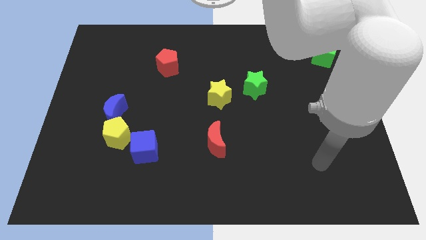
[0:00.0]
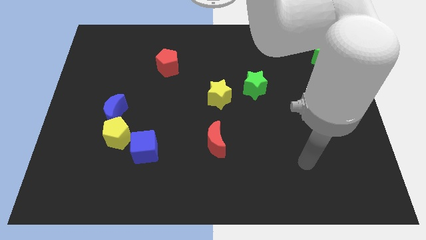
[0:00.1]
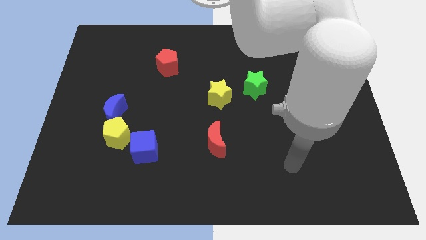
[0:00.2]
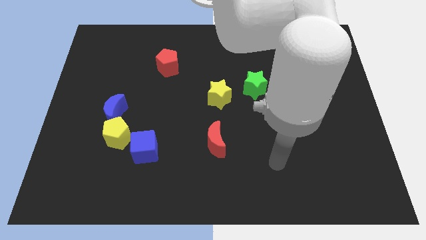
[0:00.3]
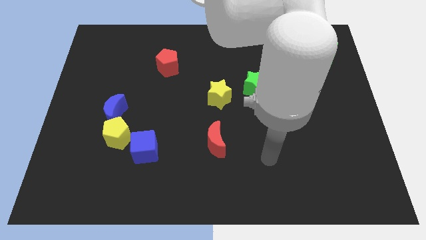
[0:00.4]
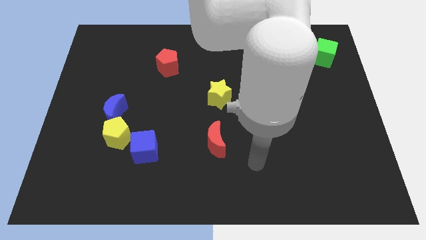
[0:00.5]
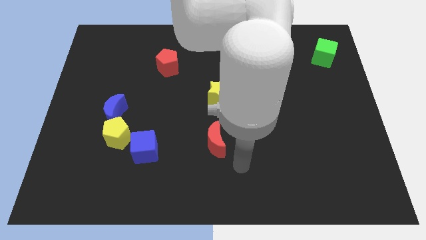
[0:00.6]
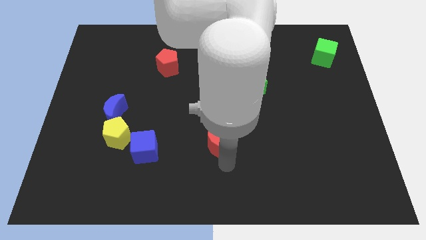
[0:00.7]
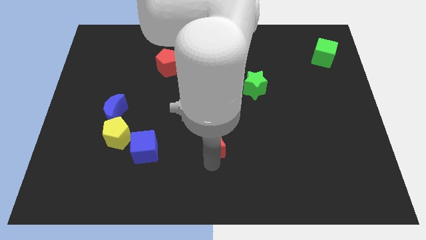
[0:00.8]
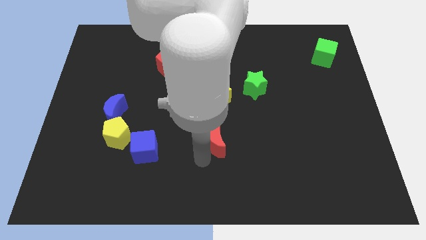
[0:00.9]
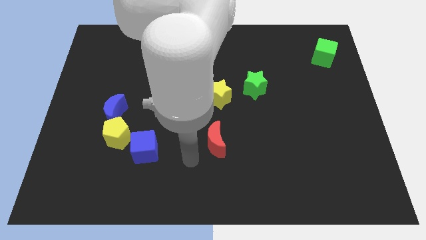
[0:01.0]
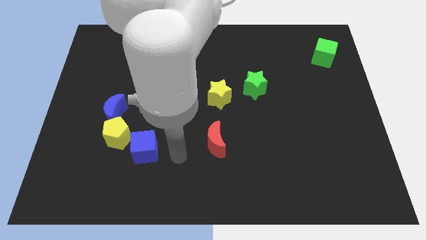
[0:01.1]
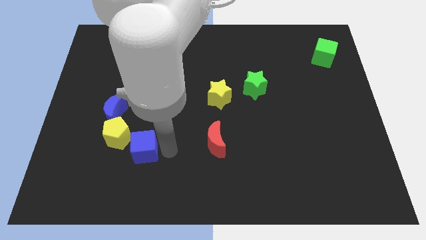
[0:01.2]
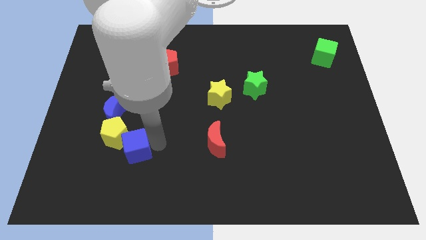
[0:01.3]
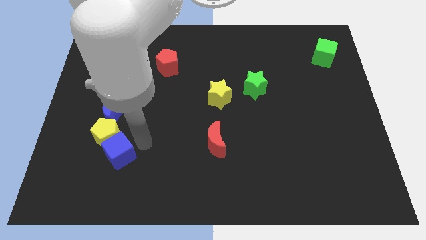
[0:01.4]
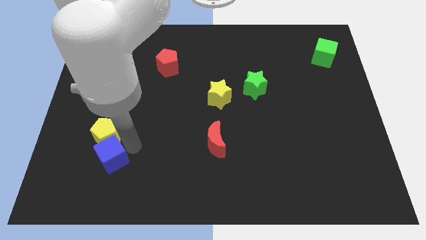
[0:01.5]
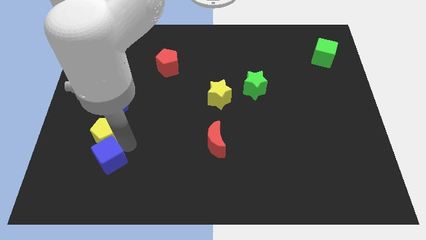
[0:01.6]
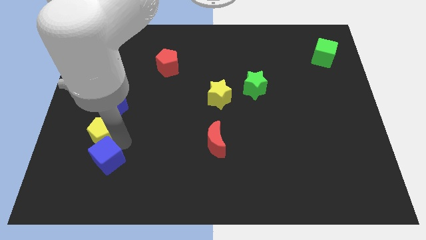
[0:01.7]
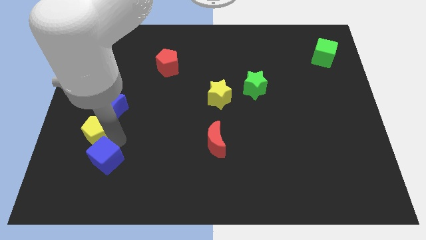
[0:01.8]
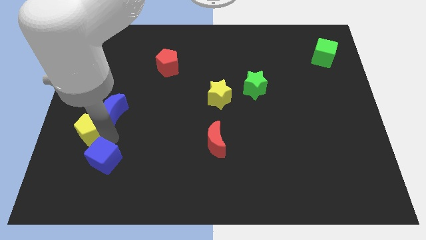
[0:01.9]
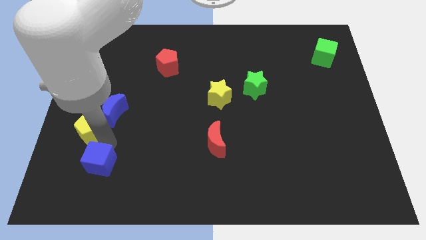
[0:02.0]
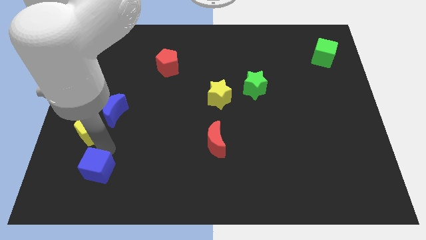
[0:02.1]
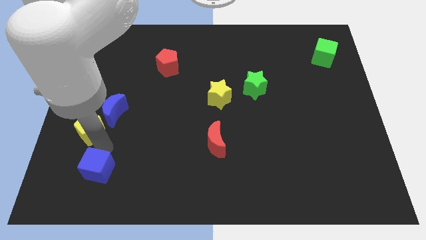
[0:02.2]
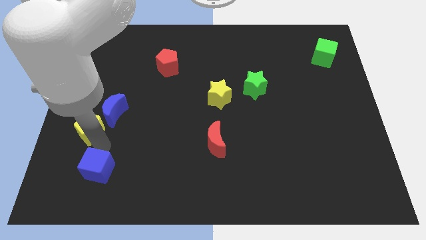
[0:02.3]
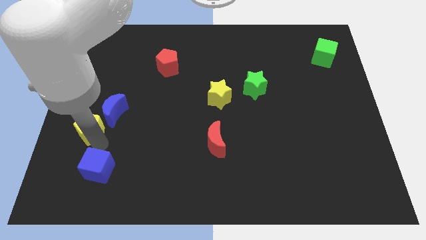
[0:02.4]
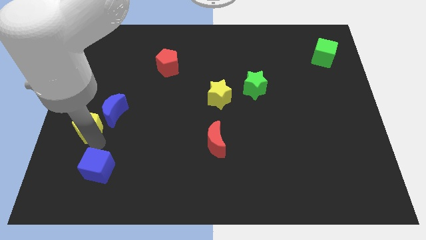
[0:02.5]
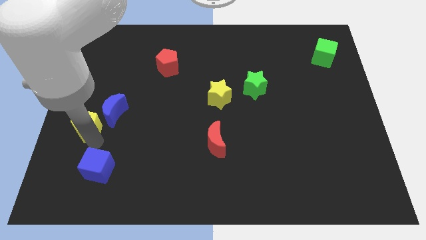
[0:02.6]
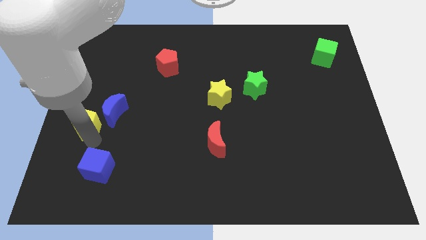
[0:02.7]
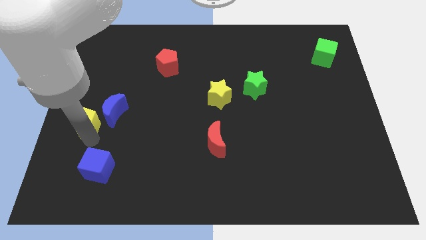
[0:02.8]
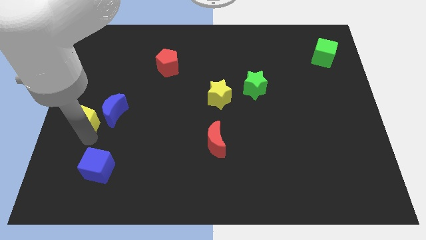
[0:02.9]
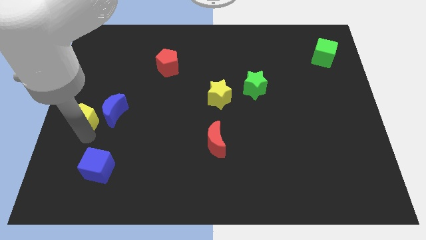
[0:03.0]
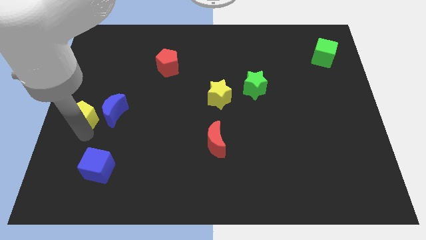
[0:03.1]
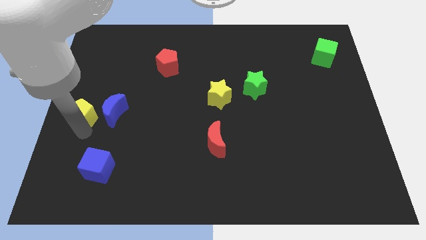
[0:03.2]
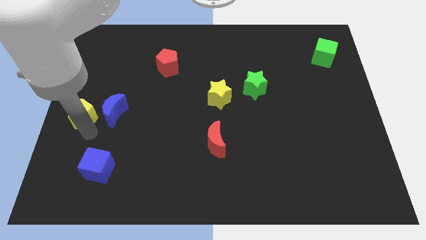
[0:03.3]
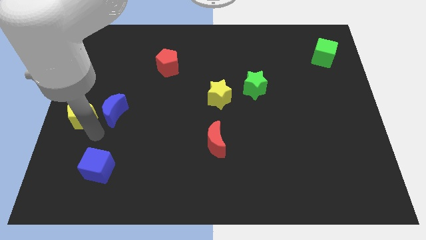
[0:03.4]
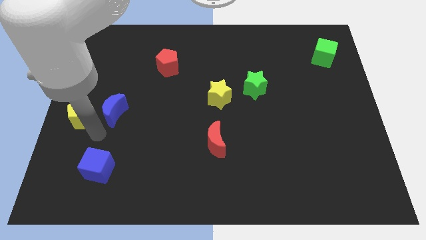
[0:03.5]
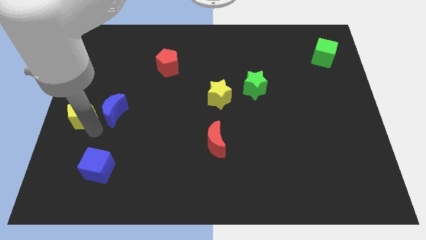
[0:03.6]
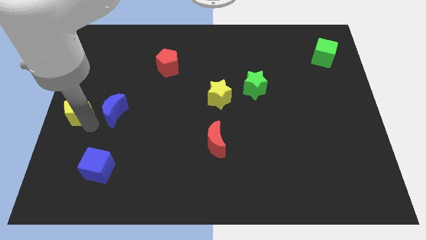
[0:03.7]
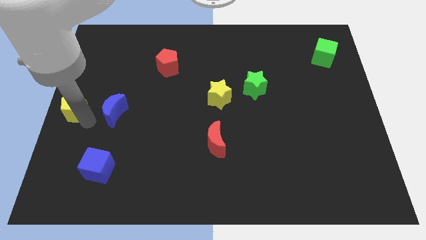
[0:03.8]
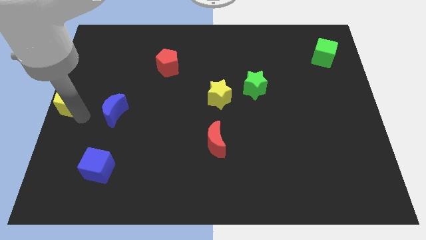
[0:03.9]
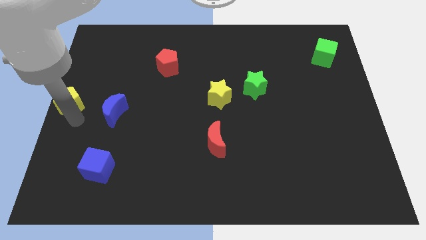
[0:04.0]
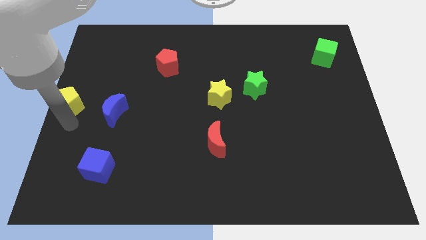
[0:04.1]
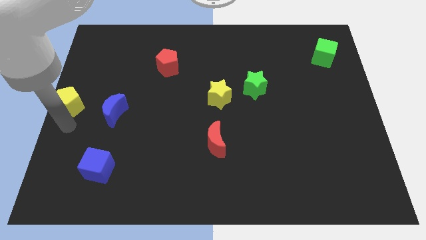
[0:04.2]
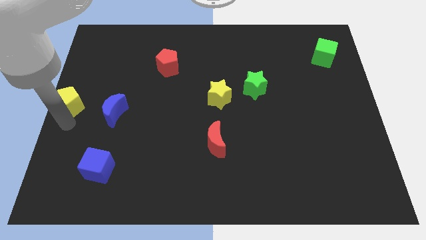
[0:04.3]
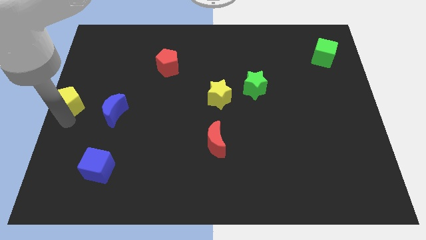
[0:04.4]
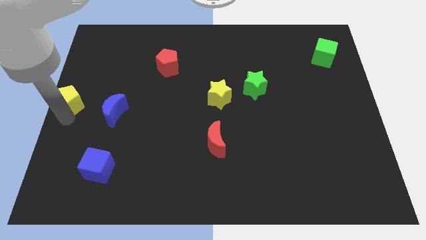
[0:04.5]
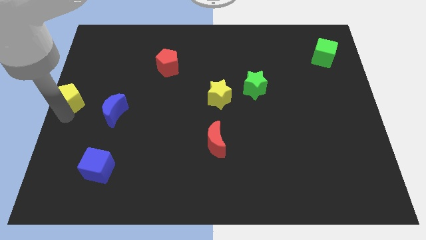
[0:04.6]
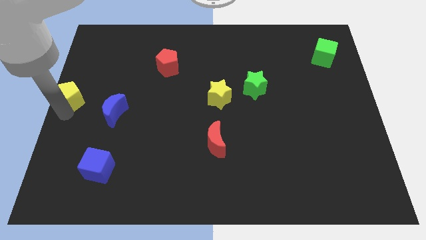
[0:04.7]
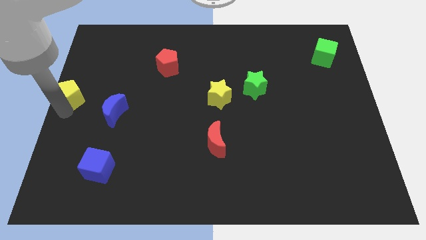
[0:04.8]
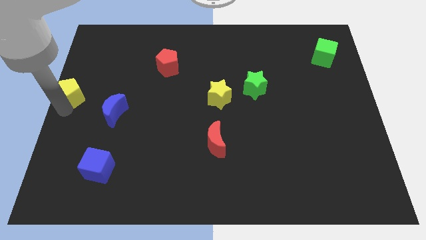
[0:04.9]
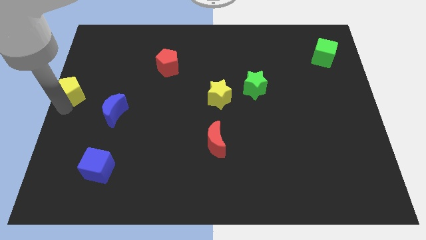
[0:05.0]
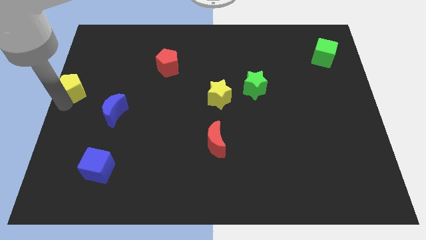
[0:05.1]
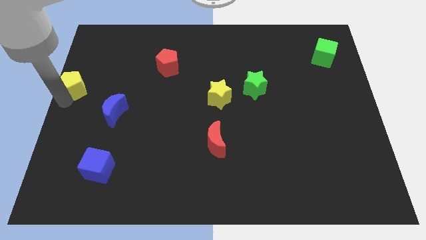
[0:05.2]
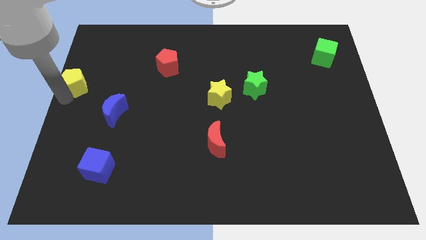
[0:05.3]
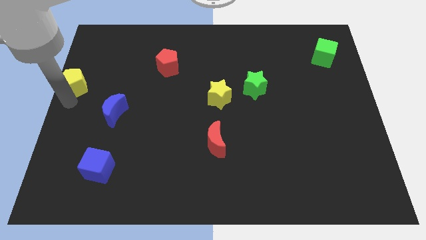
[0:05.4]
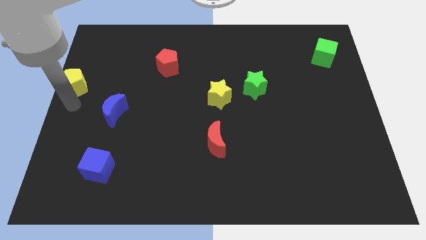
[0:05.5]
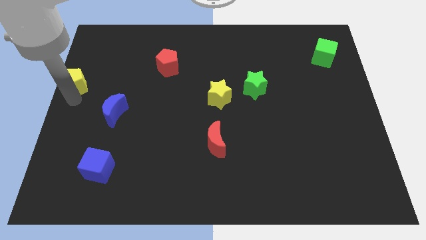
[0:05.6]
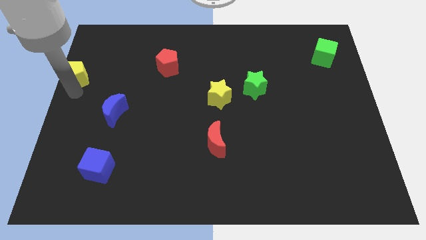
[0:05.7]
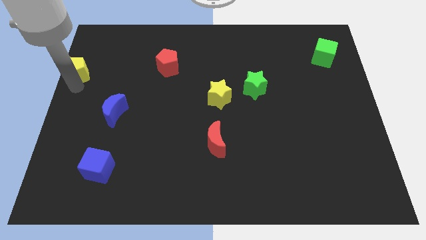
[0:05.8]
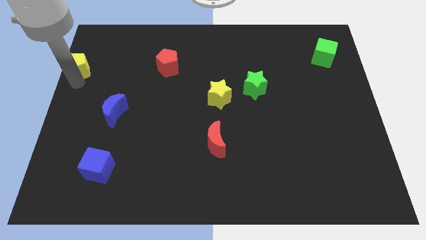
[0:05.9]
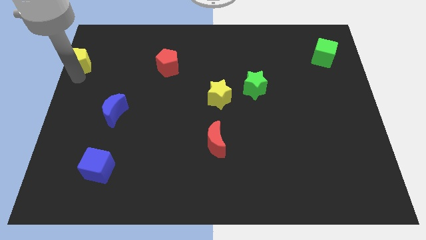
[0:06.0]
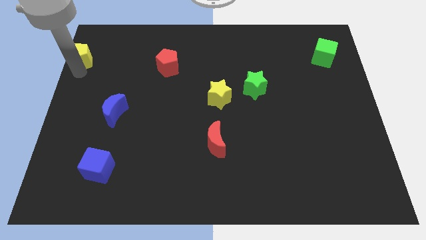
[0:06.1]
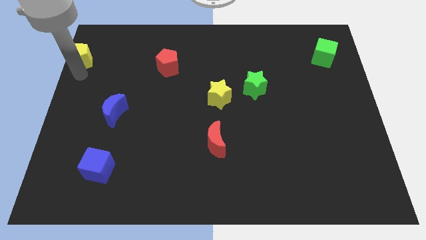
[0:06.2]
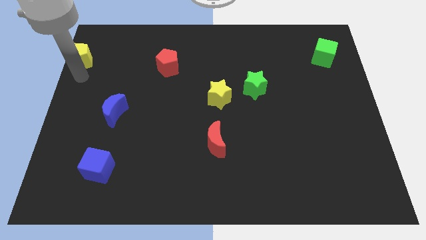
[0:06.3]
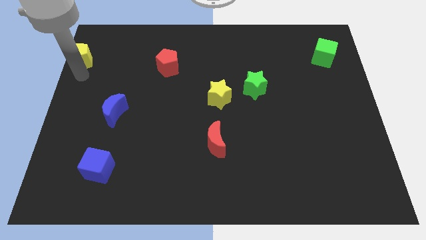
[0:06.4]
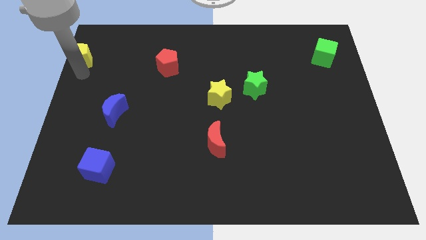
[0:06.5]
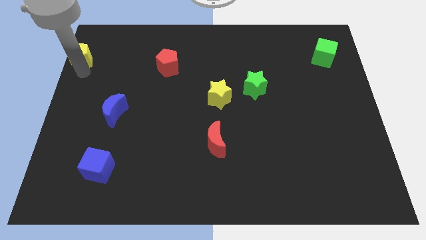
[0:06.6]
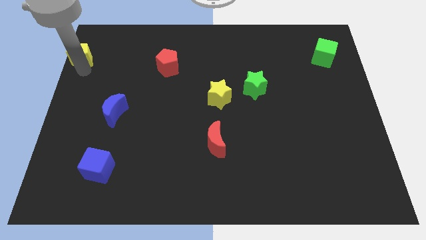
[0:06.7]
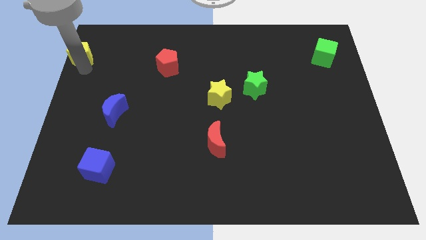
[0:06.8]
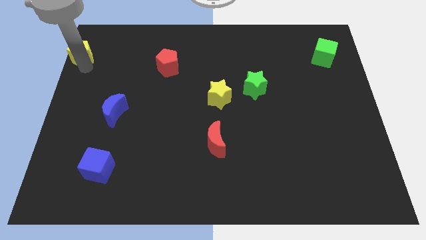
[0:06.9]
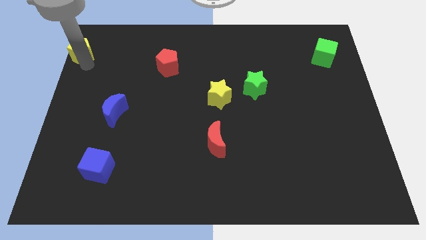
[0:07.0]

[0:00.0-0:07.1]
move the yellow pentagon to the top left corner
